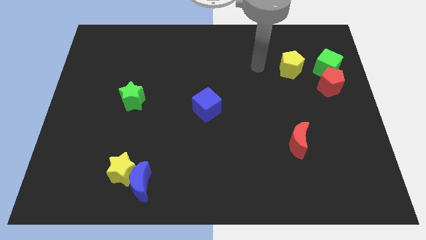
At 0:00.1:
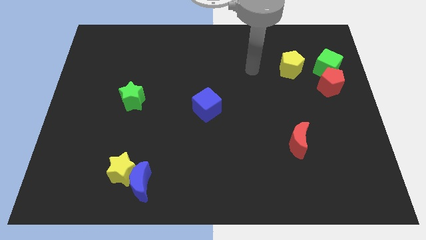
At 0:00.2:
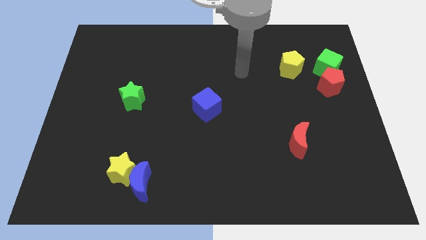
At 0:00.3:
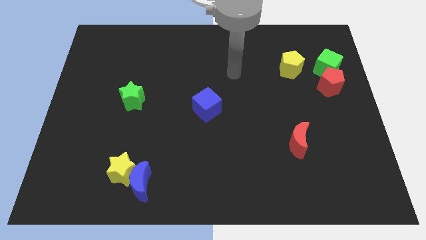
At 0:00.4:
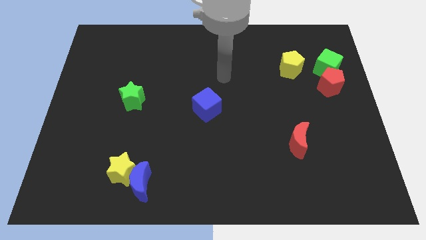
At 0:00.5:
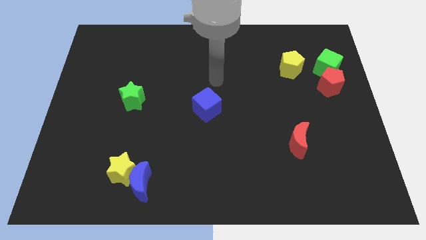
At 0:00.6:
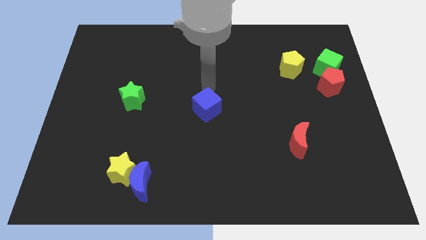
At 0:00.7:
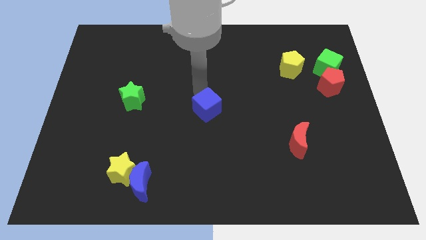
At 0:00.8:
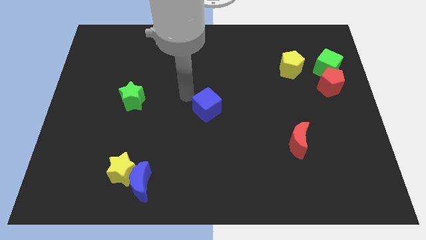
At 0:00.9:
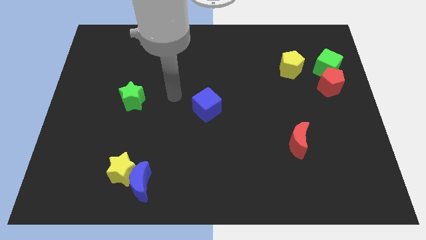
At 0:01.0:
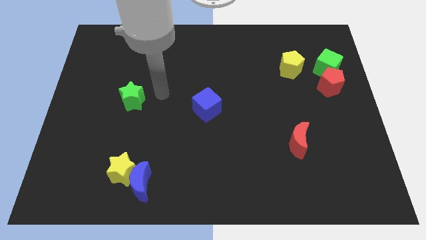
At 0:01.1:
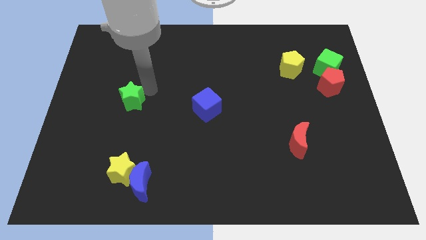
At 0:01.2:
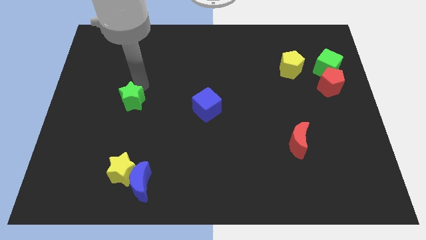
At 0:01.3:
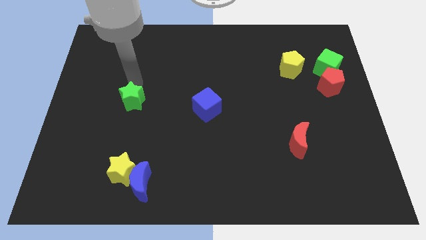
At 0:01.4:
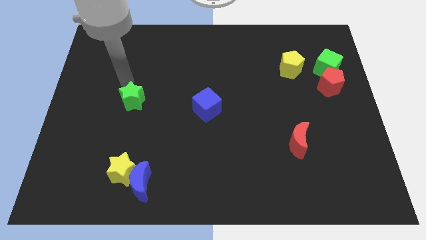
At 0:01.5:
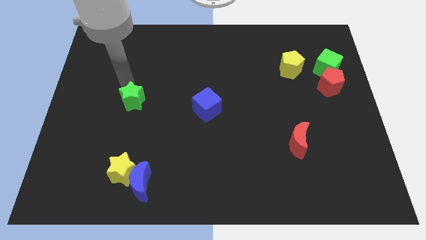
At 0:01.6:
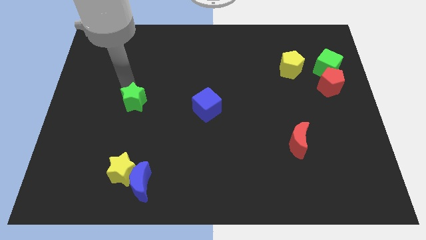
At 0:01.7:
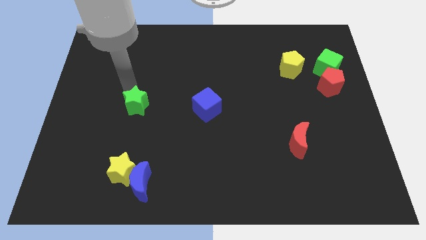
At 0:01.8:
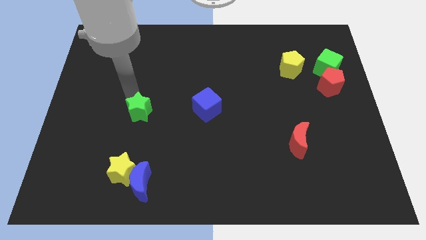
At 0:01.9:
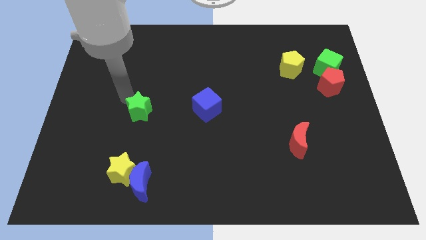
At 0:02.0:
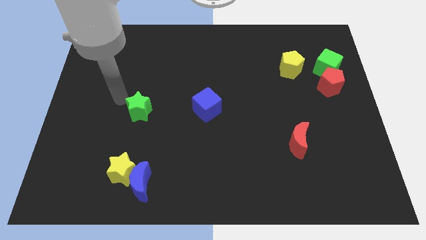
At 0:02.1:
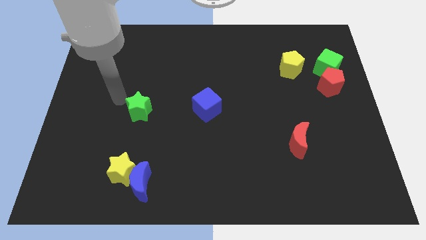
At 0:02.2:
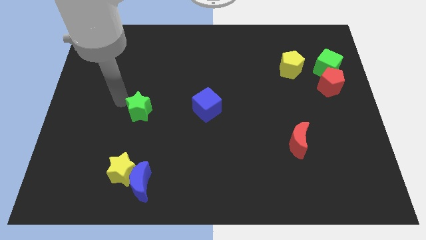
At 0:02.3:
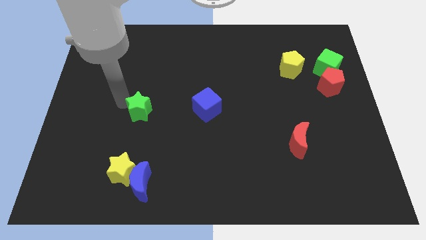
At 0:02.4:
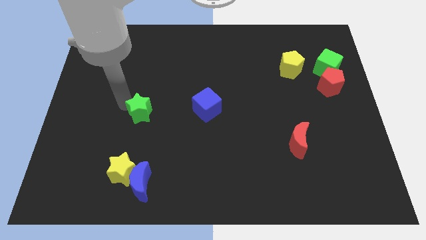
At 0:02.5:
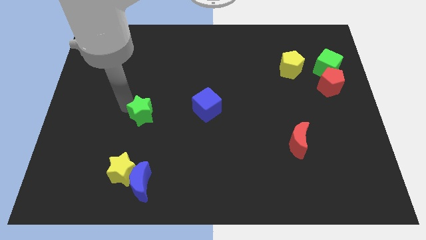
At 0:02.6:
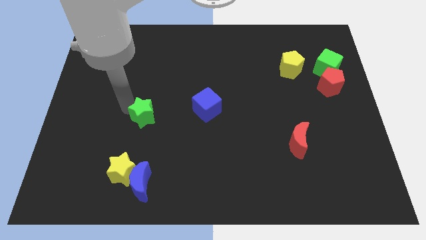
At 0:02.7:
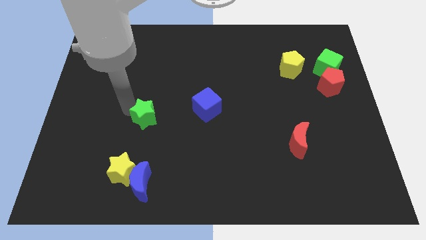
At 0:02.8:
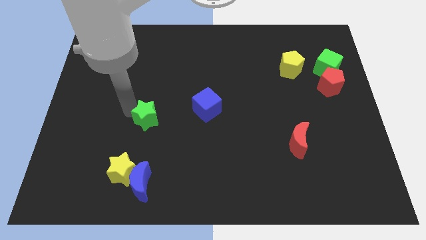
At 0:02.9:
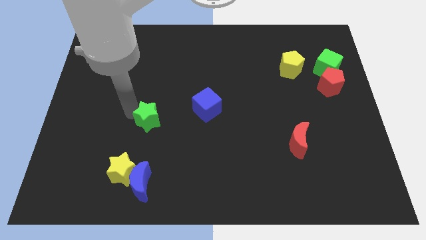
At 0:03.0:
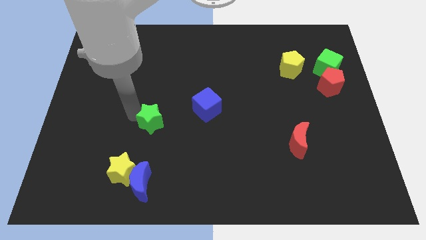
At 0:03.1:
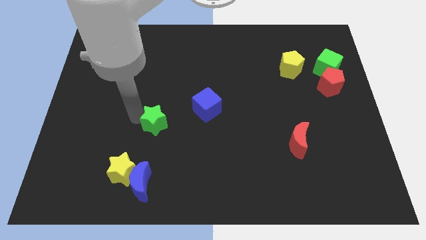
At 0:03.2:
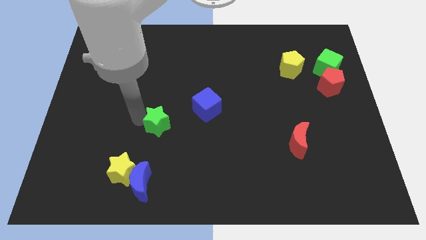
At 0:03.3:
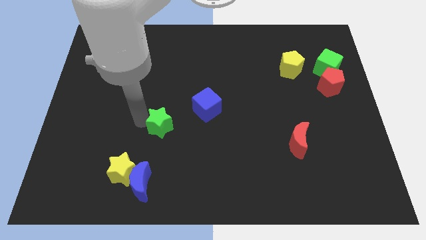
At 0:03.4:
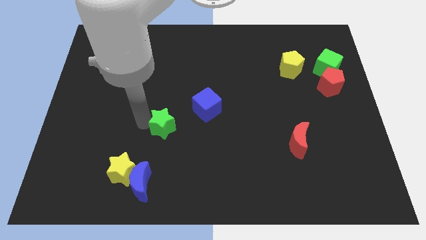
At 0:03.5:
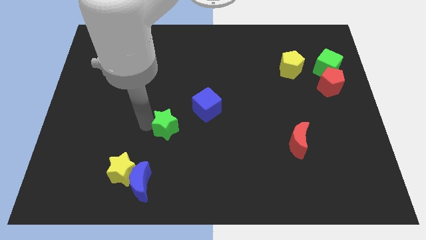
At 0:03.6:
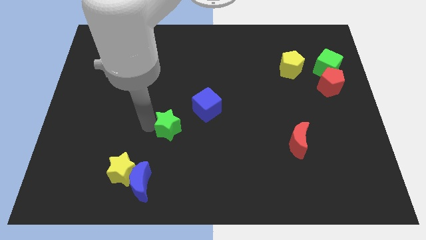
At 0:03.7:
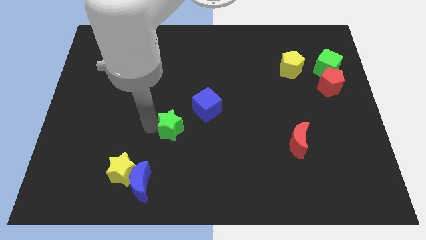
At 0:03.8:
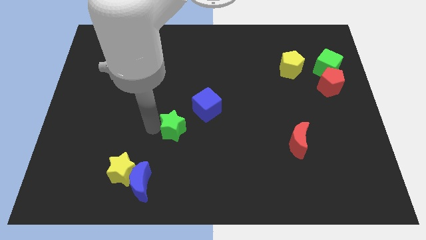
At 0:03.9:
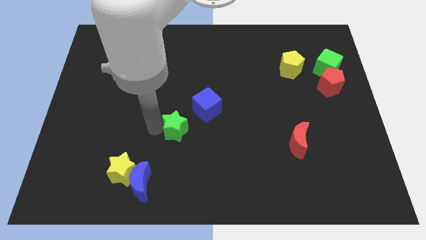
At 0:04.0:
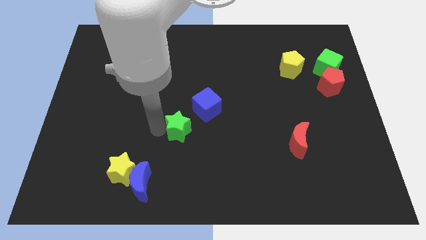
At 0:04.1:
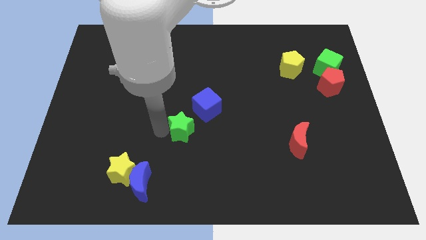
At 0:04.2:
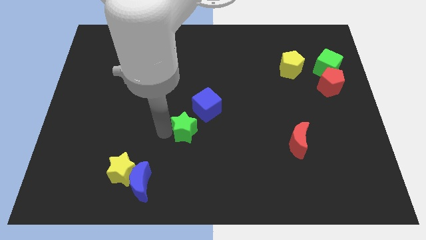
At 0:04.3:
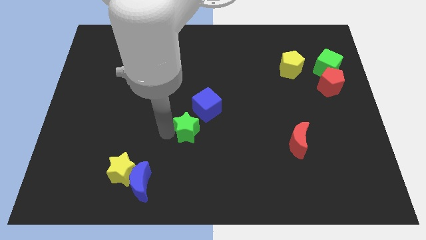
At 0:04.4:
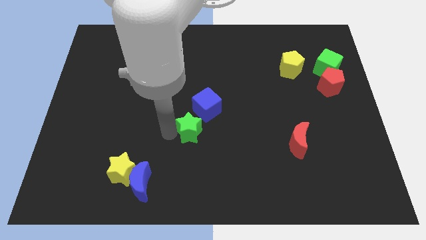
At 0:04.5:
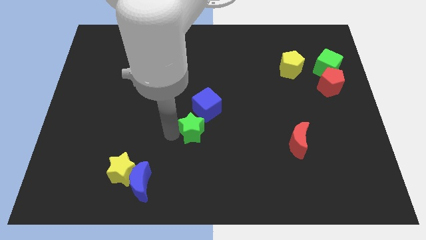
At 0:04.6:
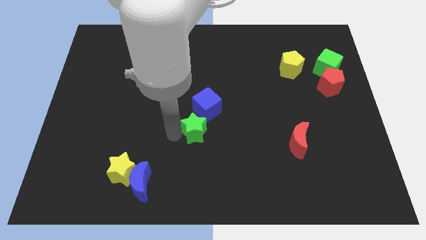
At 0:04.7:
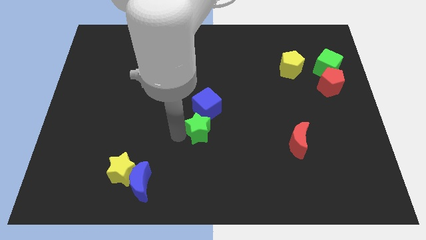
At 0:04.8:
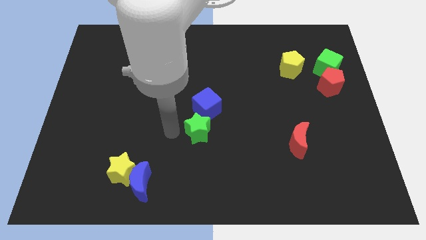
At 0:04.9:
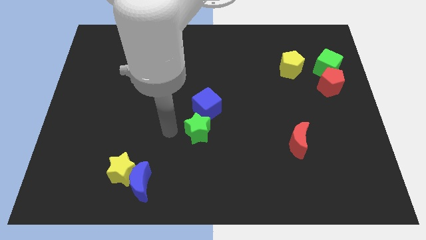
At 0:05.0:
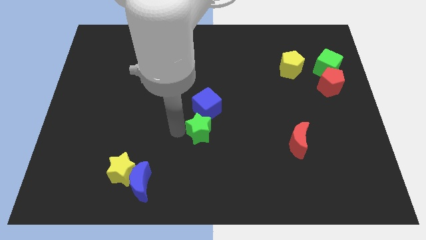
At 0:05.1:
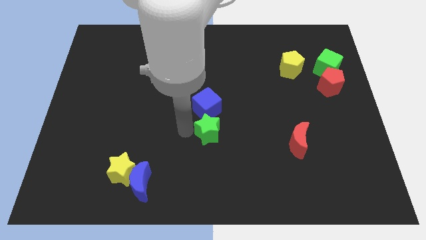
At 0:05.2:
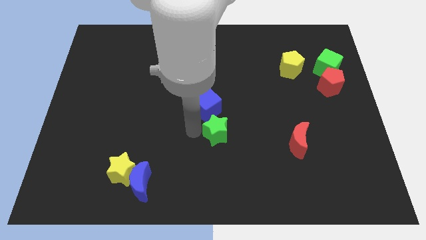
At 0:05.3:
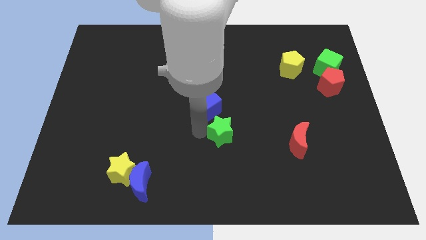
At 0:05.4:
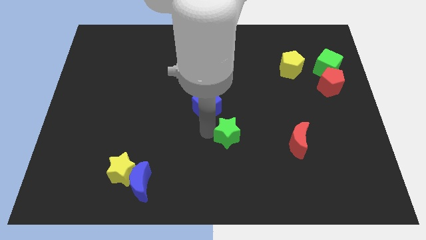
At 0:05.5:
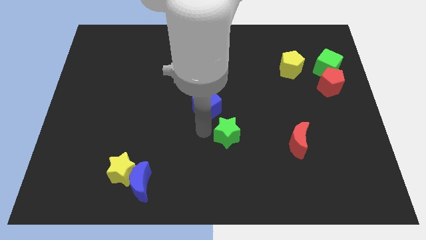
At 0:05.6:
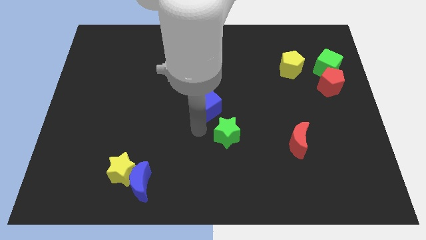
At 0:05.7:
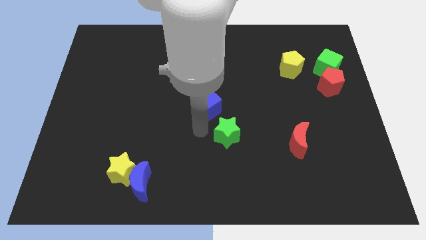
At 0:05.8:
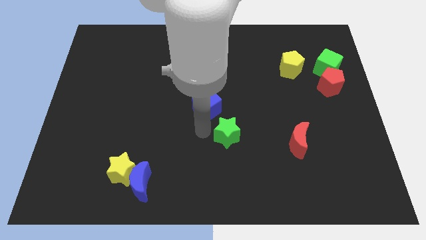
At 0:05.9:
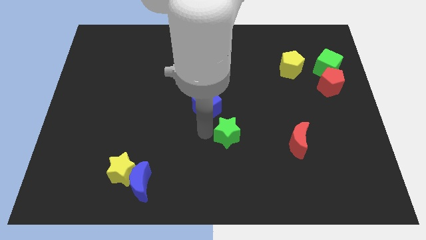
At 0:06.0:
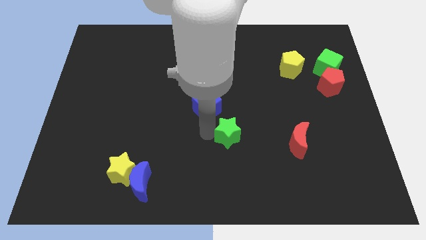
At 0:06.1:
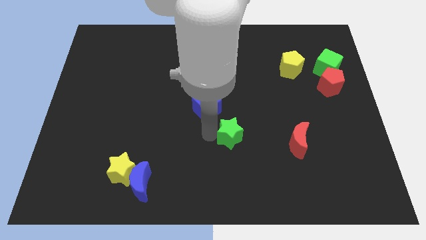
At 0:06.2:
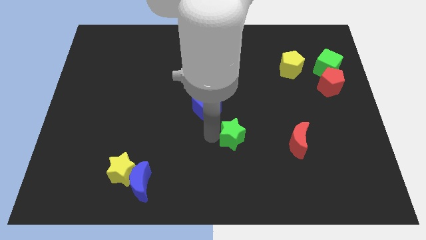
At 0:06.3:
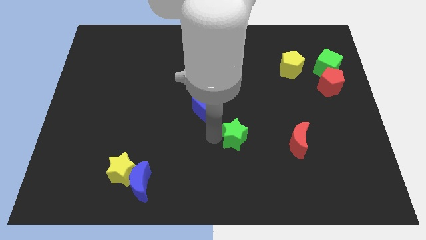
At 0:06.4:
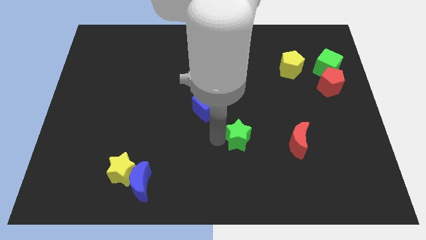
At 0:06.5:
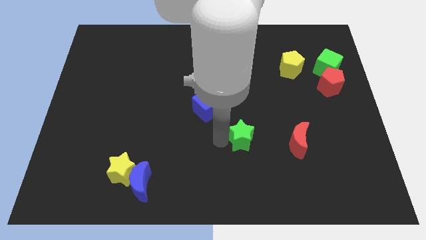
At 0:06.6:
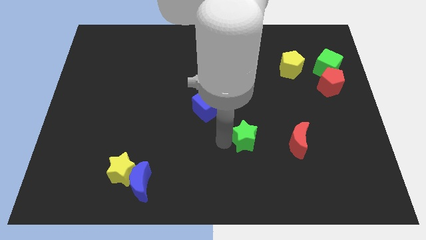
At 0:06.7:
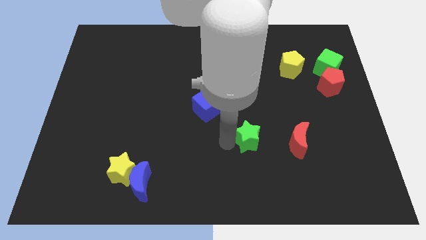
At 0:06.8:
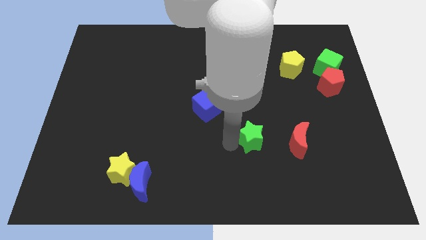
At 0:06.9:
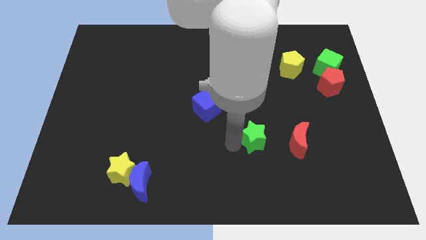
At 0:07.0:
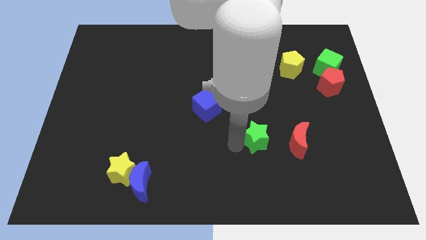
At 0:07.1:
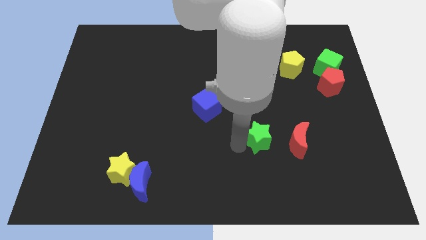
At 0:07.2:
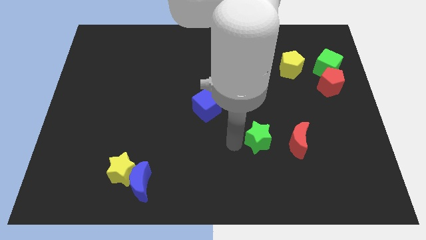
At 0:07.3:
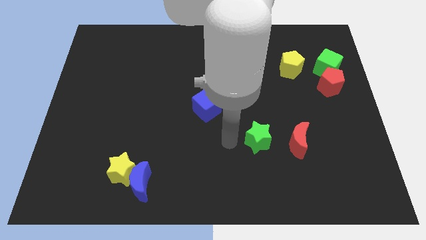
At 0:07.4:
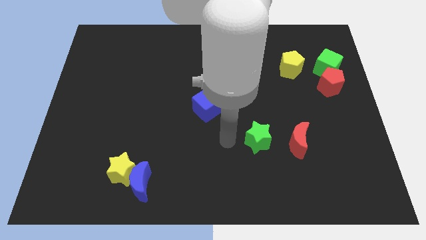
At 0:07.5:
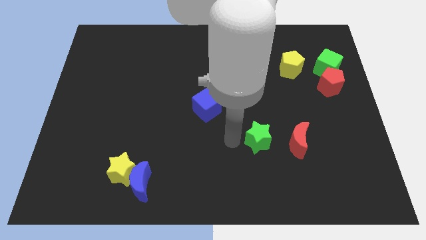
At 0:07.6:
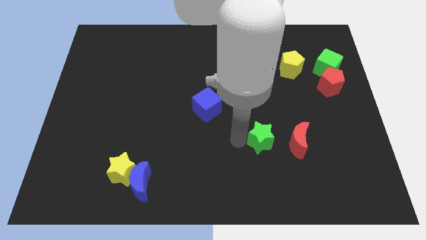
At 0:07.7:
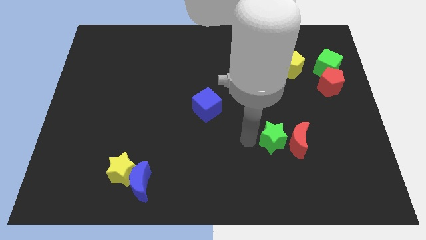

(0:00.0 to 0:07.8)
slide the green star close to the red moon
